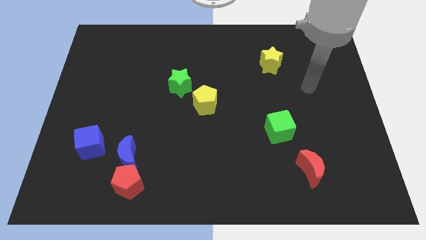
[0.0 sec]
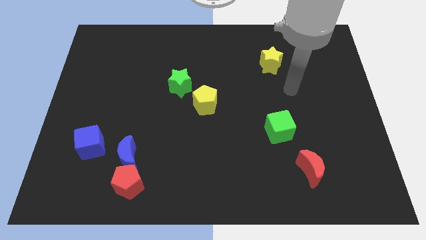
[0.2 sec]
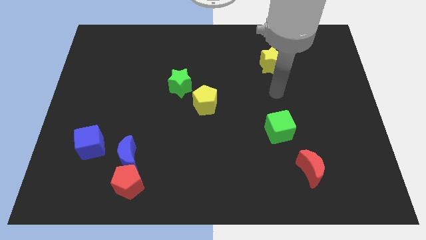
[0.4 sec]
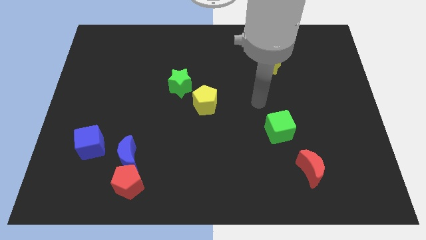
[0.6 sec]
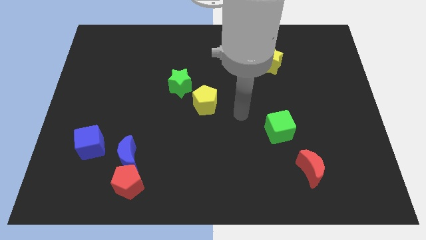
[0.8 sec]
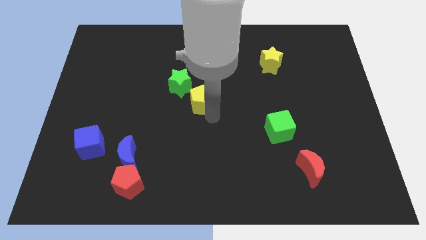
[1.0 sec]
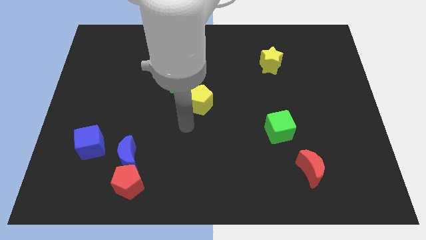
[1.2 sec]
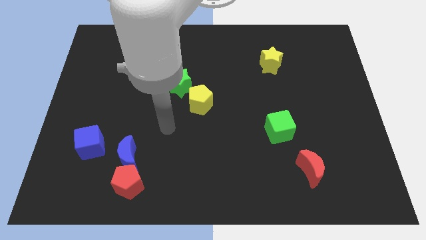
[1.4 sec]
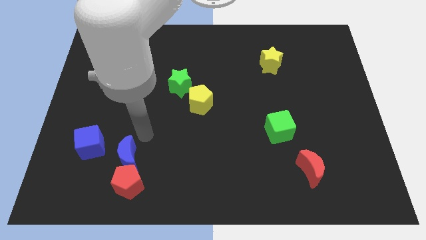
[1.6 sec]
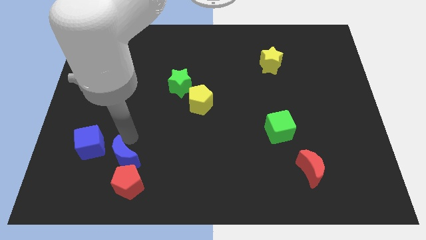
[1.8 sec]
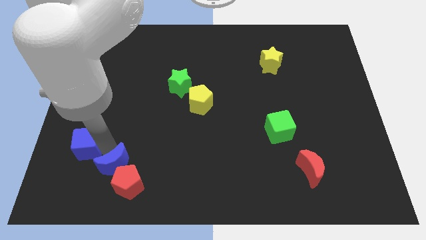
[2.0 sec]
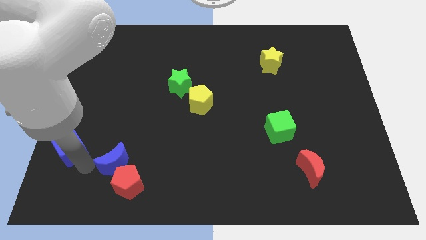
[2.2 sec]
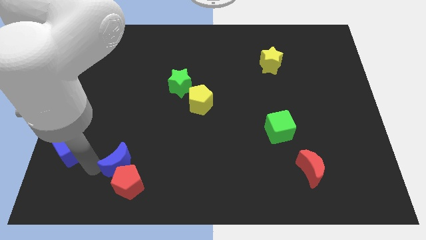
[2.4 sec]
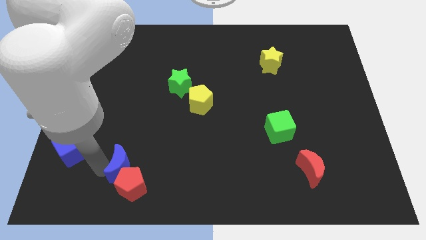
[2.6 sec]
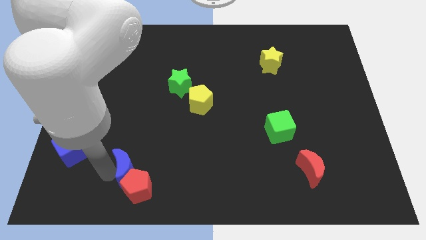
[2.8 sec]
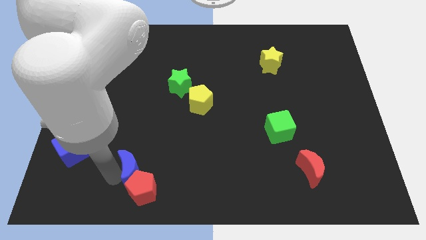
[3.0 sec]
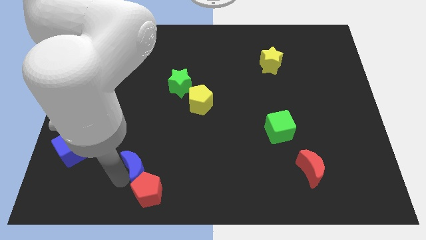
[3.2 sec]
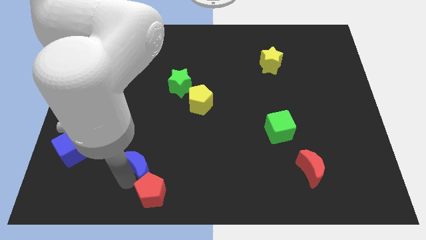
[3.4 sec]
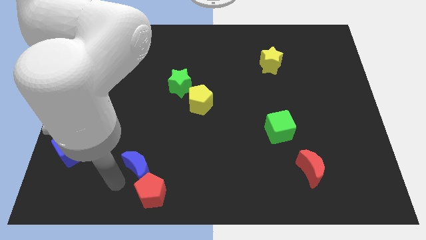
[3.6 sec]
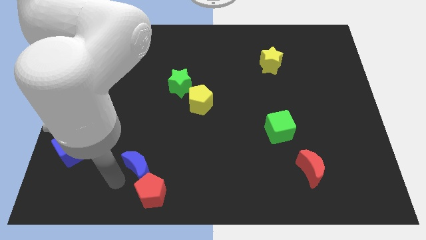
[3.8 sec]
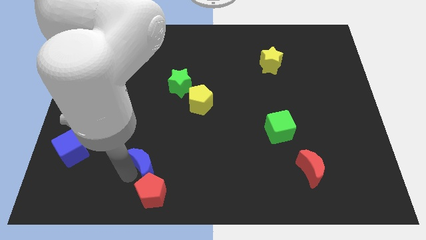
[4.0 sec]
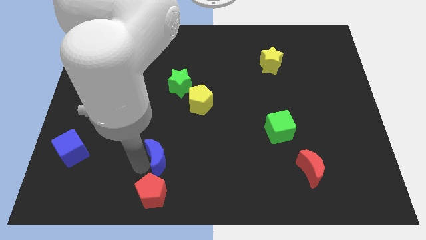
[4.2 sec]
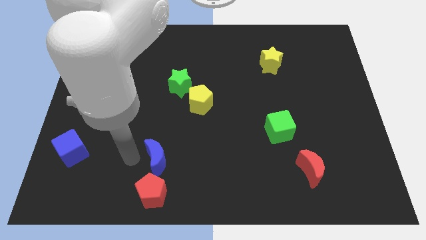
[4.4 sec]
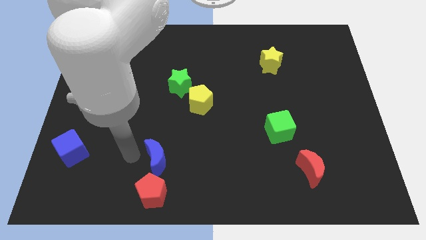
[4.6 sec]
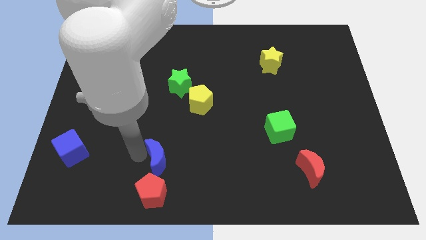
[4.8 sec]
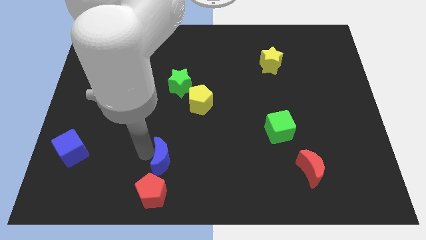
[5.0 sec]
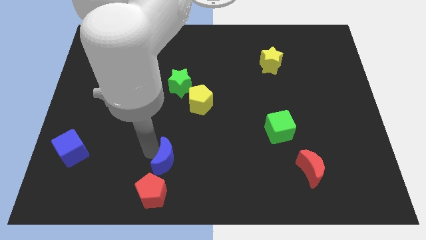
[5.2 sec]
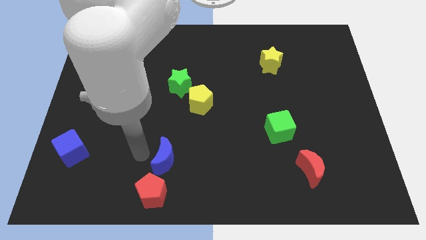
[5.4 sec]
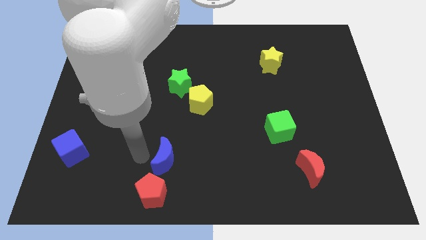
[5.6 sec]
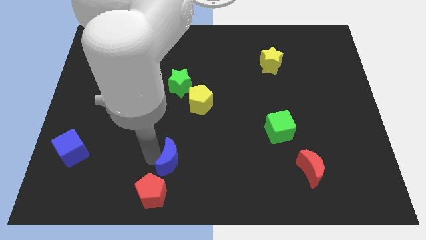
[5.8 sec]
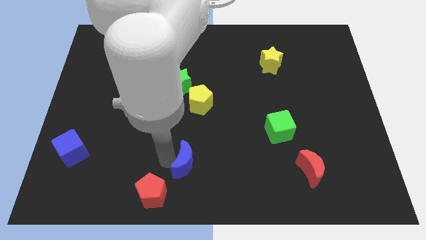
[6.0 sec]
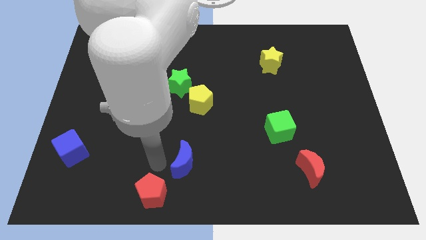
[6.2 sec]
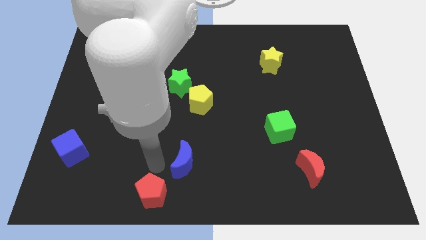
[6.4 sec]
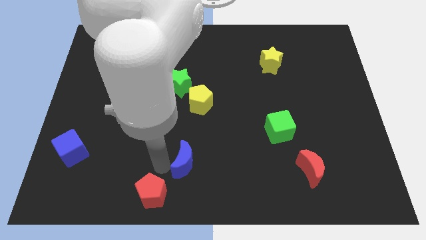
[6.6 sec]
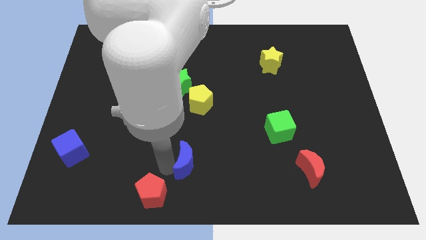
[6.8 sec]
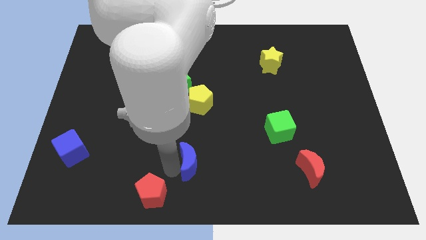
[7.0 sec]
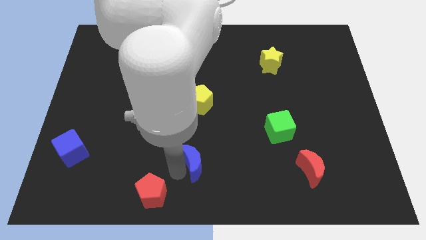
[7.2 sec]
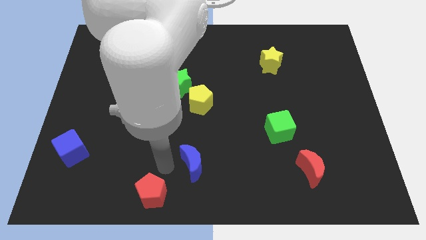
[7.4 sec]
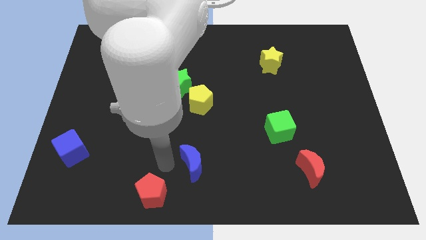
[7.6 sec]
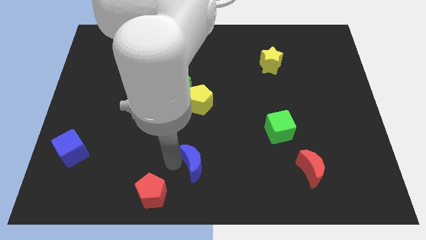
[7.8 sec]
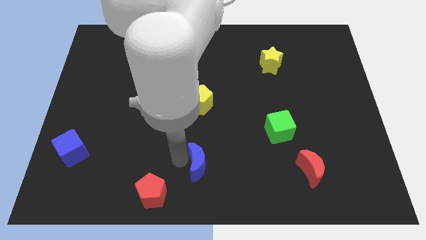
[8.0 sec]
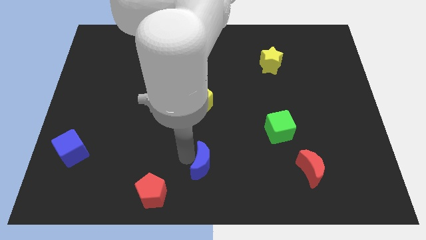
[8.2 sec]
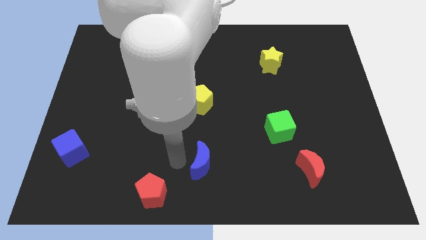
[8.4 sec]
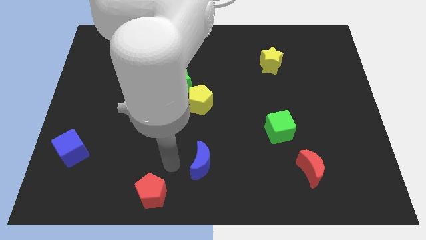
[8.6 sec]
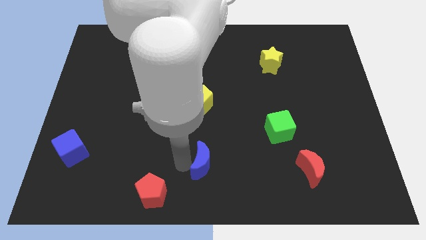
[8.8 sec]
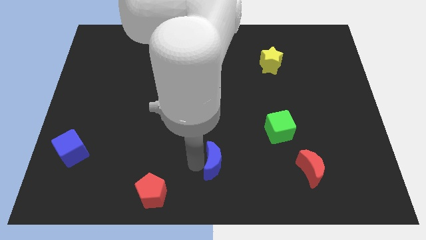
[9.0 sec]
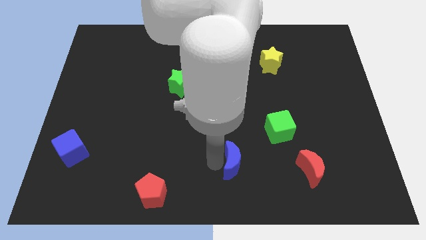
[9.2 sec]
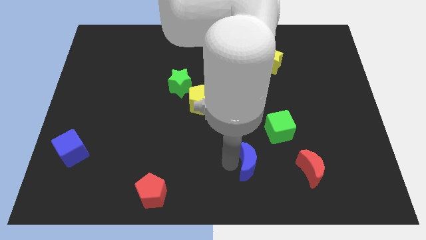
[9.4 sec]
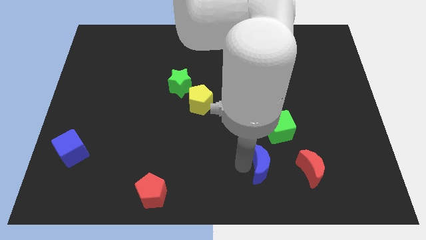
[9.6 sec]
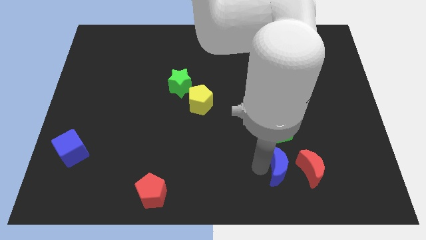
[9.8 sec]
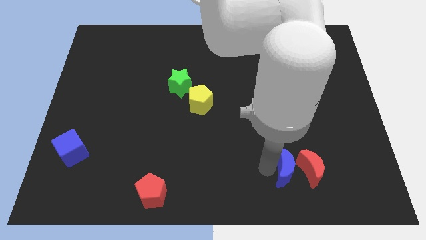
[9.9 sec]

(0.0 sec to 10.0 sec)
slide the blue moon close to the red moon

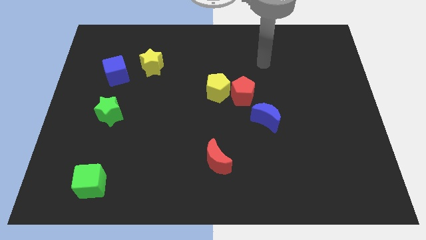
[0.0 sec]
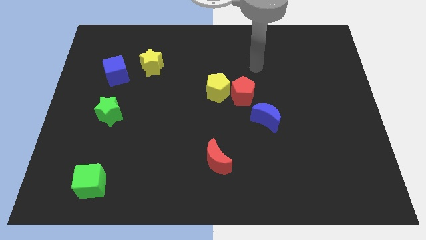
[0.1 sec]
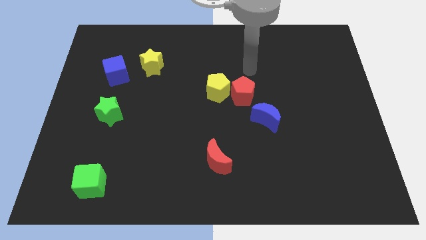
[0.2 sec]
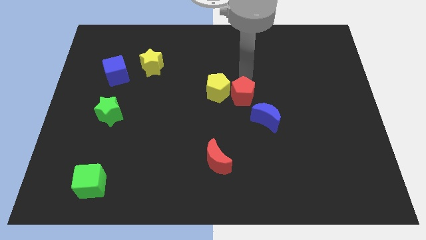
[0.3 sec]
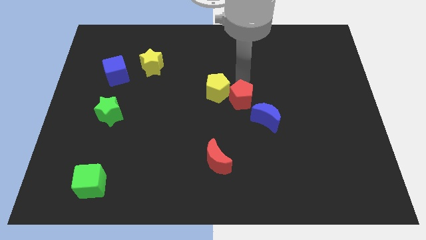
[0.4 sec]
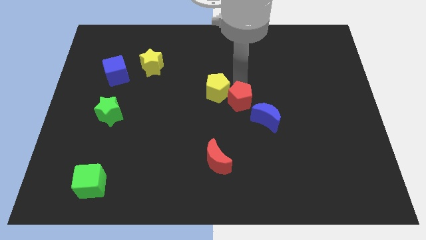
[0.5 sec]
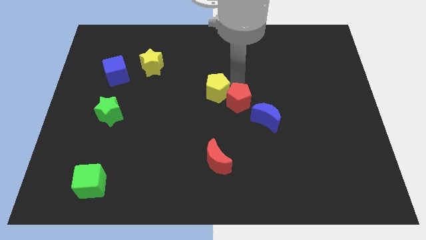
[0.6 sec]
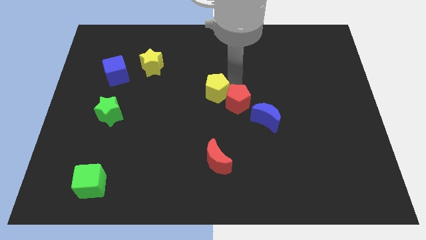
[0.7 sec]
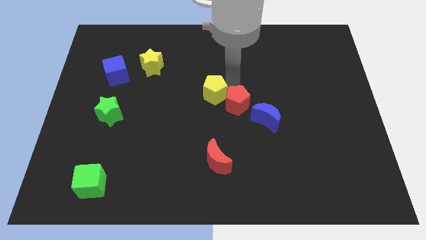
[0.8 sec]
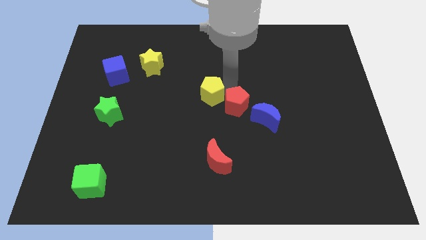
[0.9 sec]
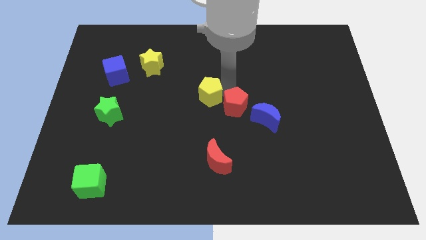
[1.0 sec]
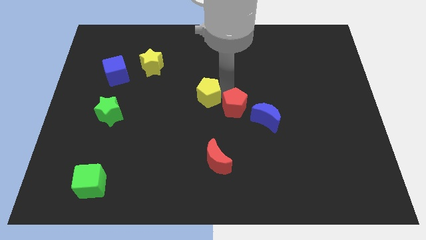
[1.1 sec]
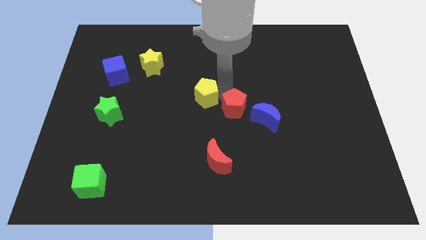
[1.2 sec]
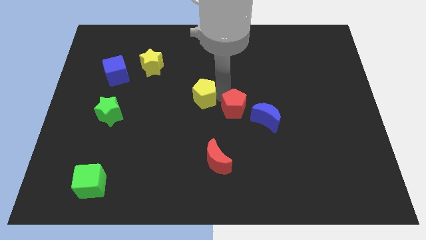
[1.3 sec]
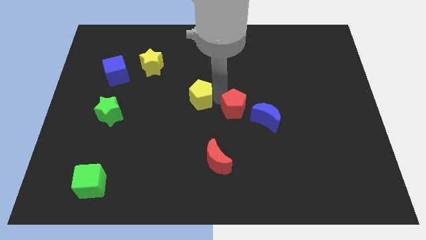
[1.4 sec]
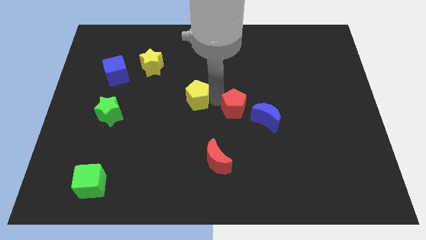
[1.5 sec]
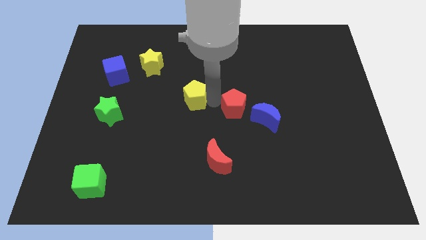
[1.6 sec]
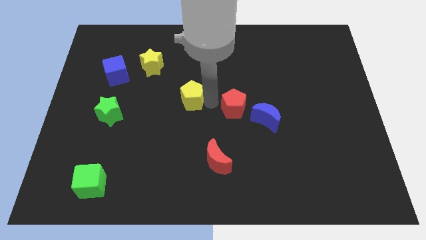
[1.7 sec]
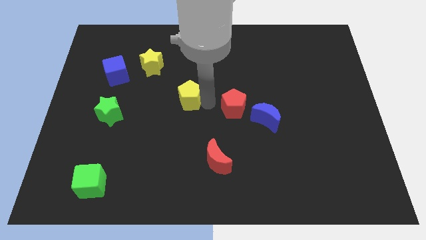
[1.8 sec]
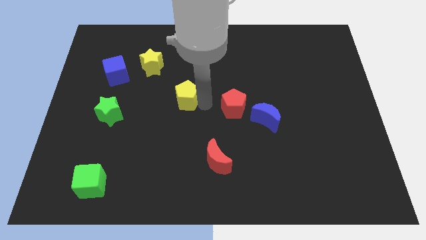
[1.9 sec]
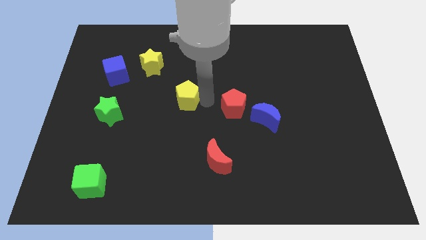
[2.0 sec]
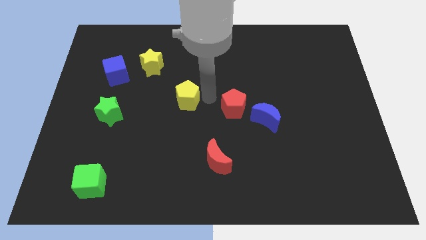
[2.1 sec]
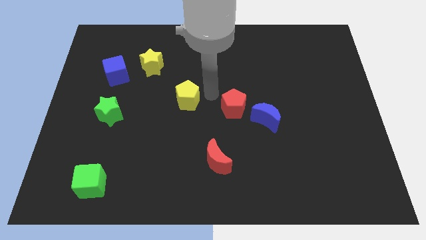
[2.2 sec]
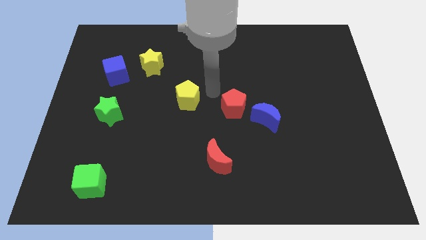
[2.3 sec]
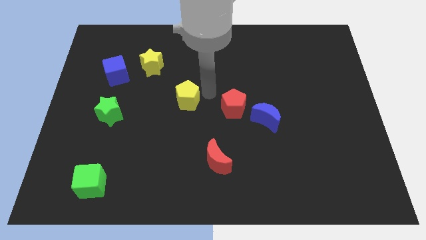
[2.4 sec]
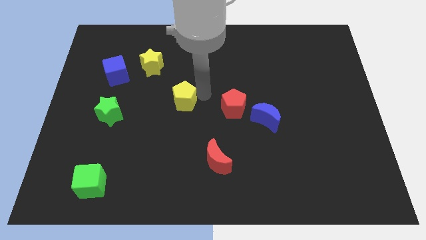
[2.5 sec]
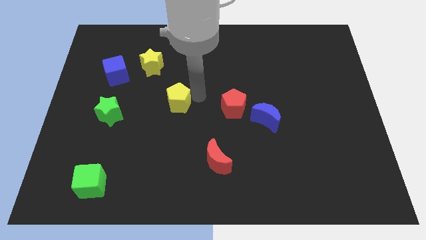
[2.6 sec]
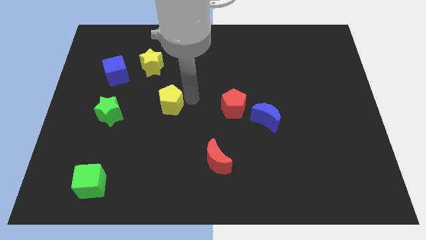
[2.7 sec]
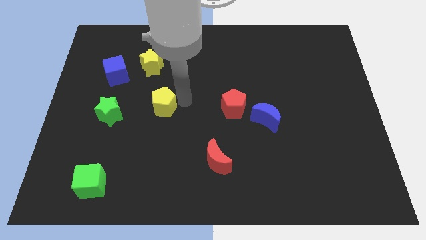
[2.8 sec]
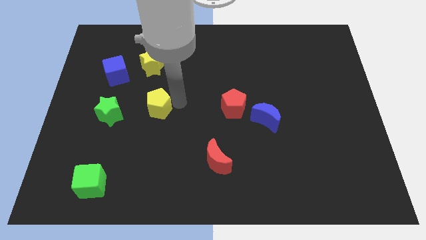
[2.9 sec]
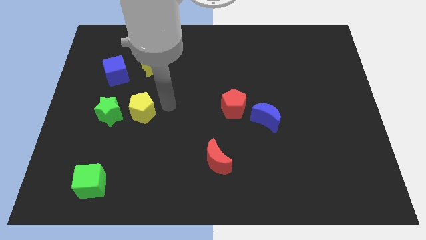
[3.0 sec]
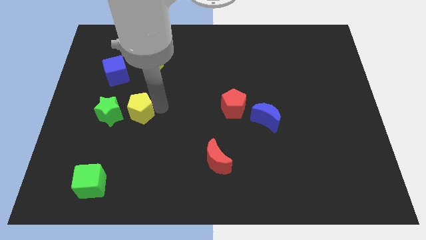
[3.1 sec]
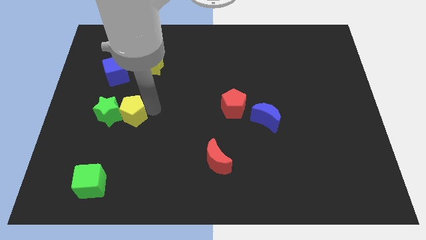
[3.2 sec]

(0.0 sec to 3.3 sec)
slide the yellow pentagon to the green star
